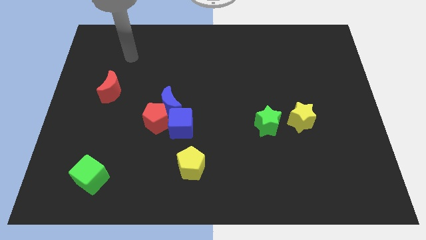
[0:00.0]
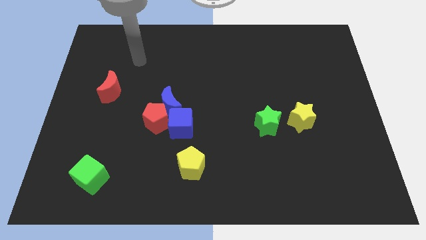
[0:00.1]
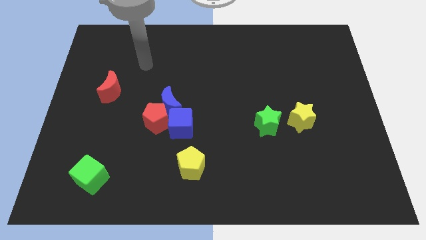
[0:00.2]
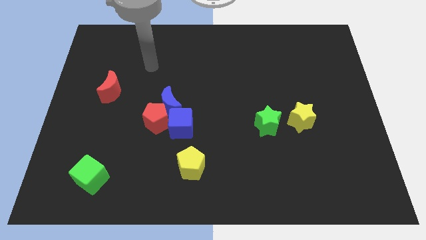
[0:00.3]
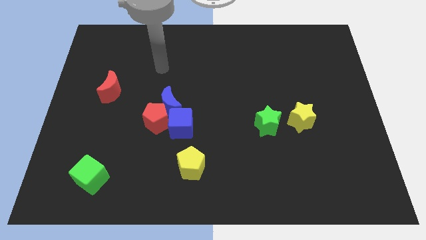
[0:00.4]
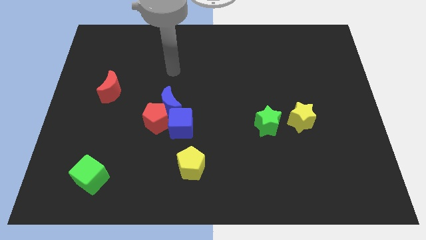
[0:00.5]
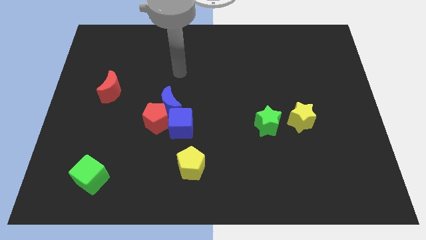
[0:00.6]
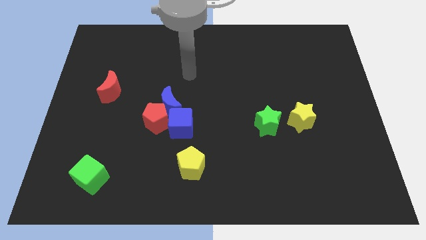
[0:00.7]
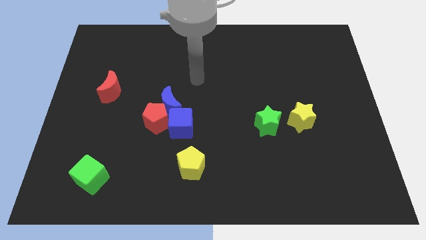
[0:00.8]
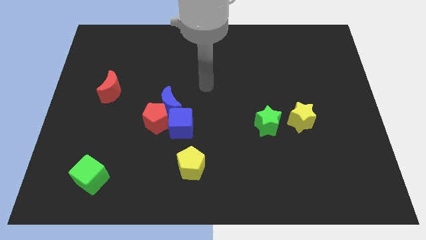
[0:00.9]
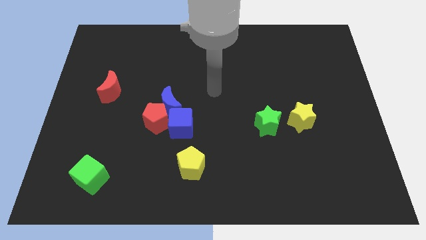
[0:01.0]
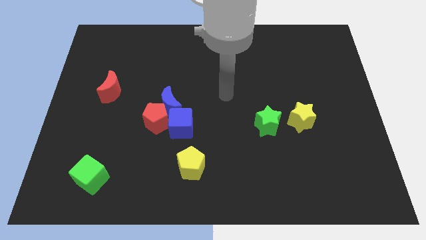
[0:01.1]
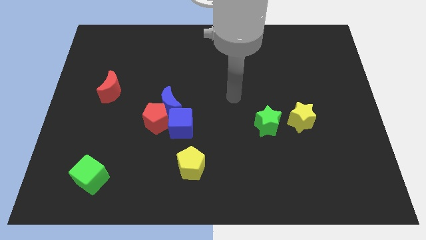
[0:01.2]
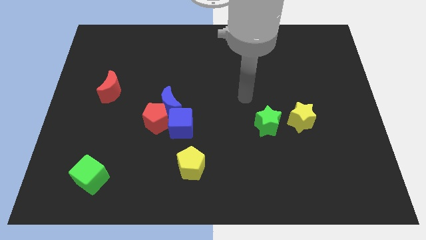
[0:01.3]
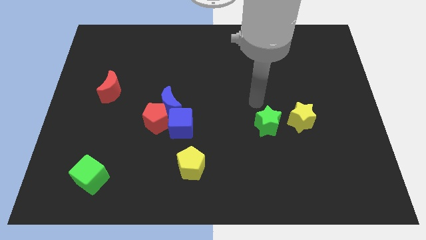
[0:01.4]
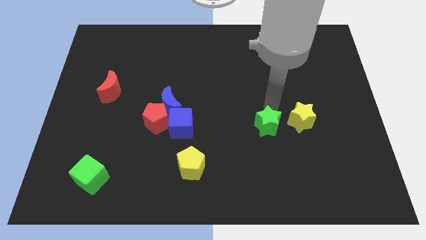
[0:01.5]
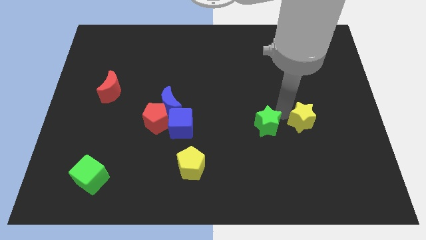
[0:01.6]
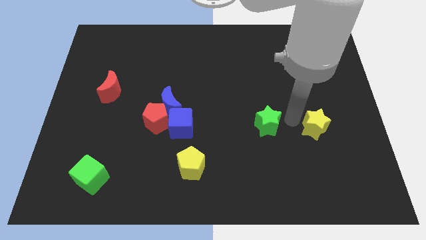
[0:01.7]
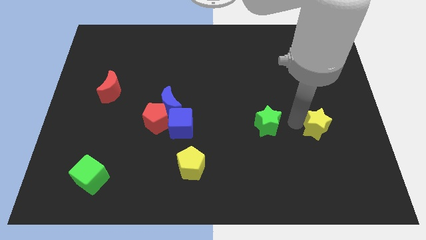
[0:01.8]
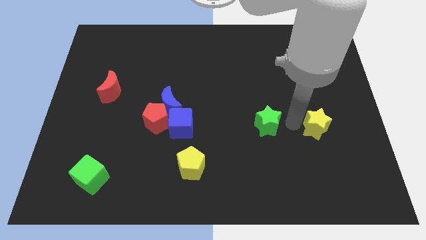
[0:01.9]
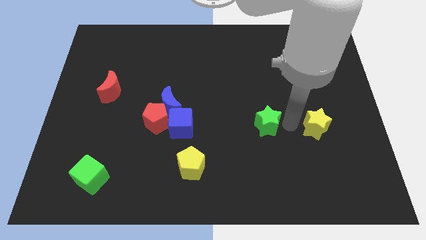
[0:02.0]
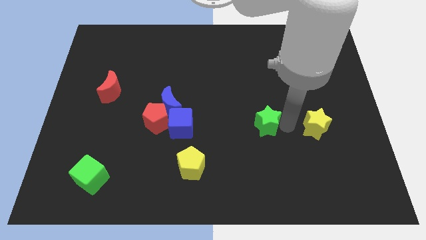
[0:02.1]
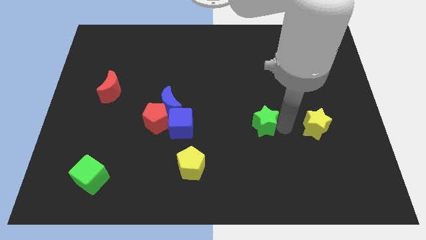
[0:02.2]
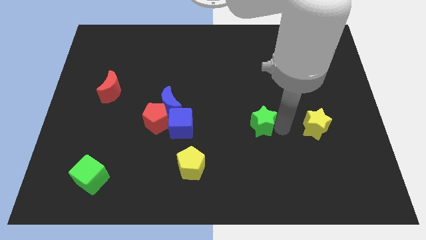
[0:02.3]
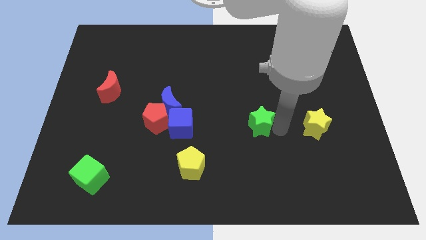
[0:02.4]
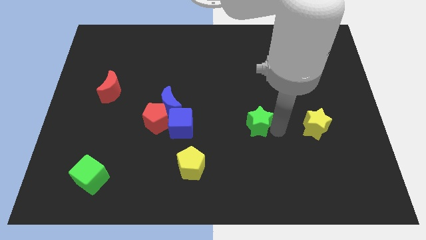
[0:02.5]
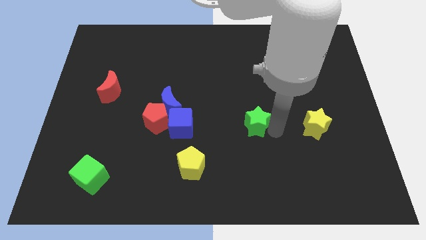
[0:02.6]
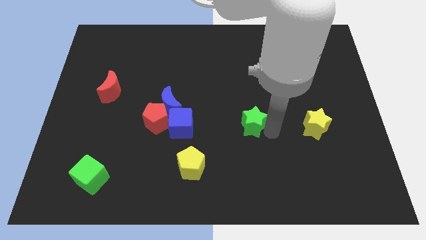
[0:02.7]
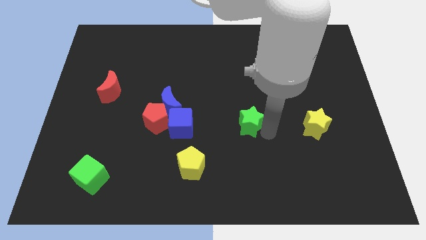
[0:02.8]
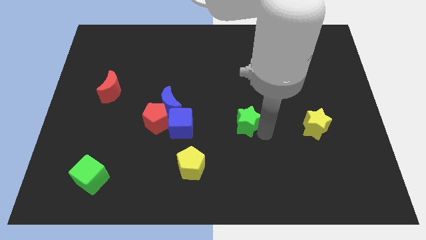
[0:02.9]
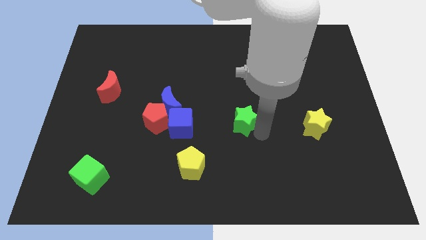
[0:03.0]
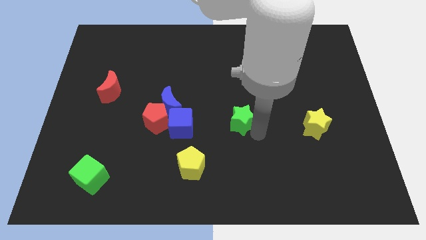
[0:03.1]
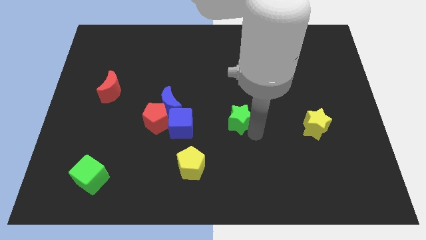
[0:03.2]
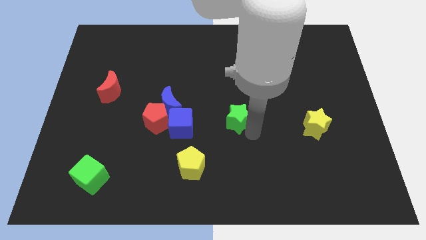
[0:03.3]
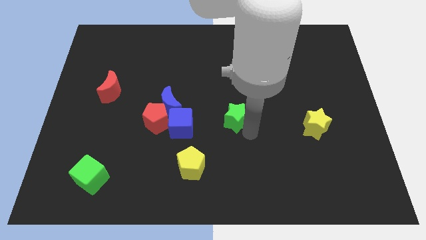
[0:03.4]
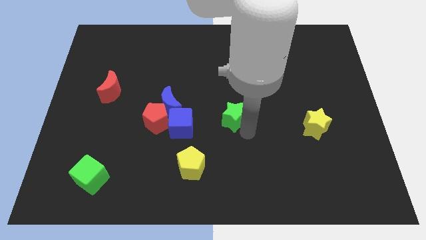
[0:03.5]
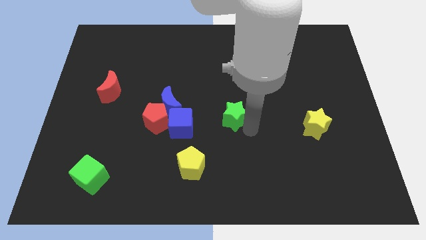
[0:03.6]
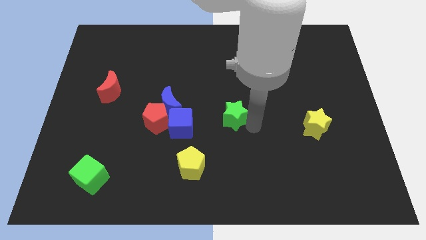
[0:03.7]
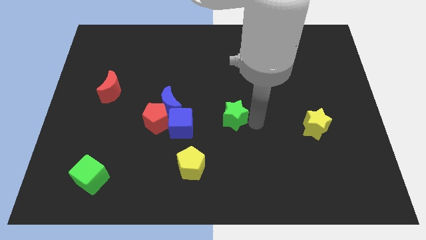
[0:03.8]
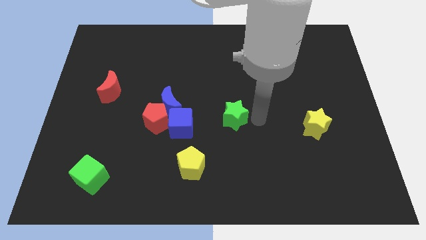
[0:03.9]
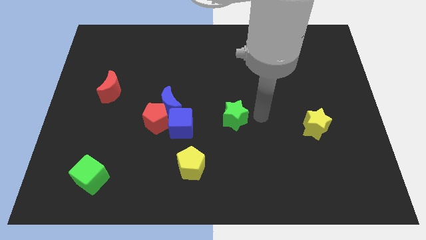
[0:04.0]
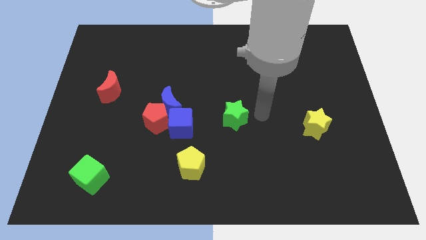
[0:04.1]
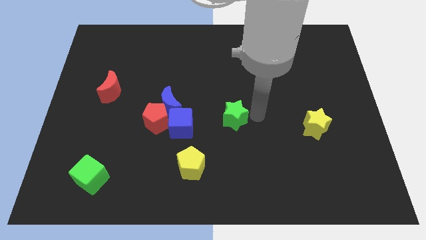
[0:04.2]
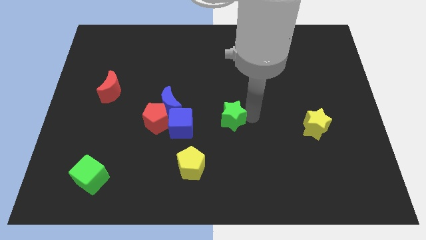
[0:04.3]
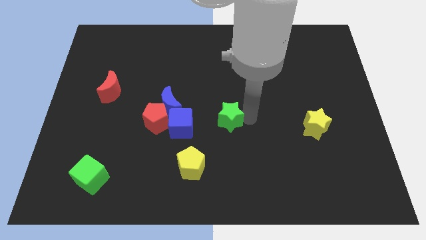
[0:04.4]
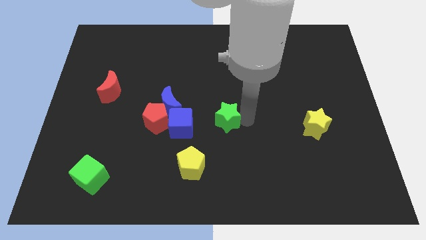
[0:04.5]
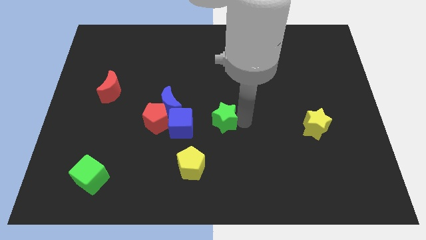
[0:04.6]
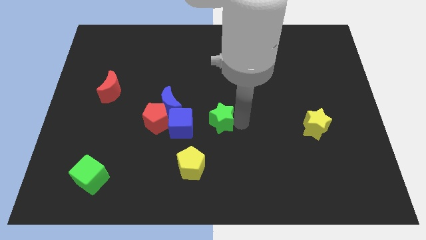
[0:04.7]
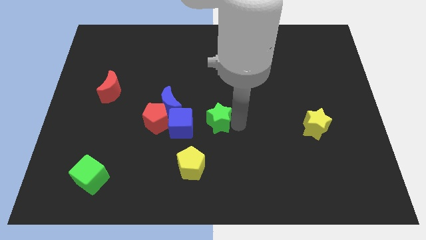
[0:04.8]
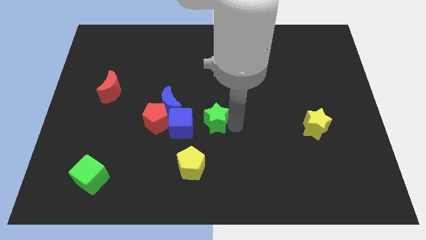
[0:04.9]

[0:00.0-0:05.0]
push the green star to the top right of the blue cube

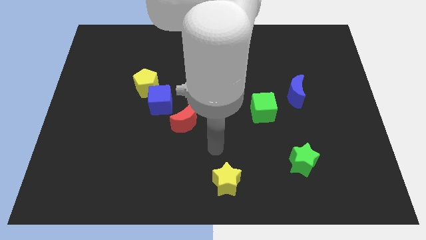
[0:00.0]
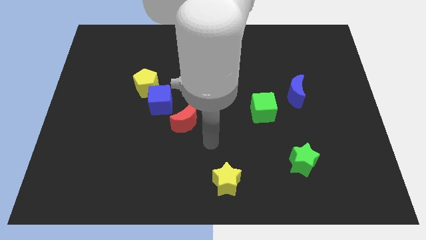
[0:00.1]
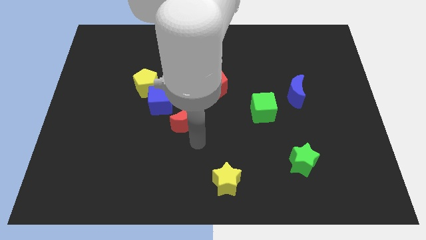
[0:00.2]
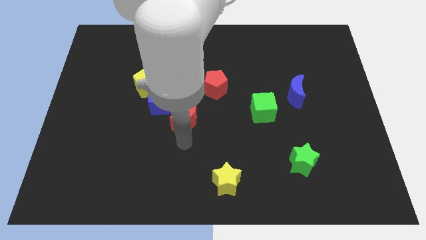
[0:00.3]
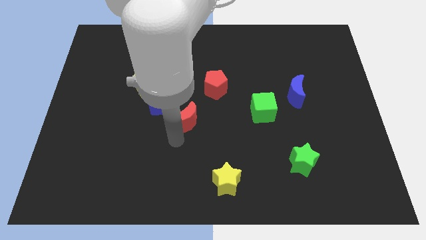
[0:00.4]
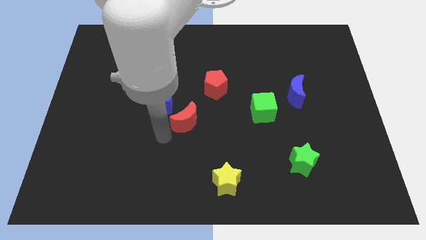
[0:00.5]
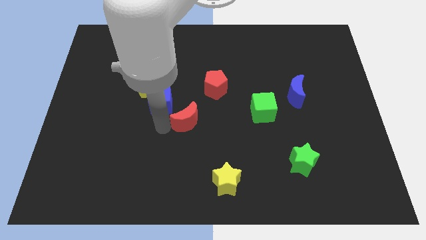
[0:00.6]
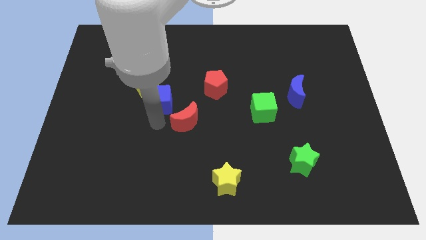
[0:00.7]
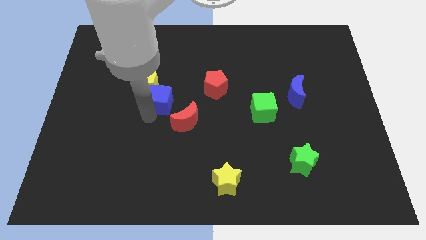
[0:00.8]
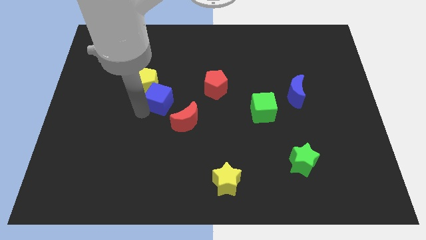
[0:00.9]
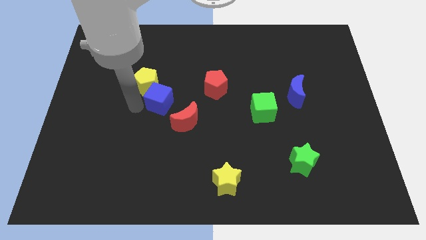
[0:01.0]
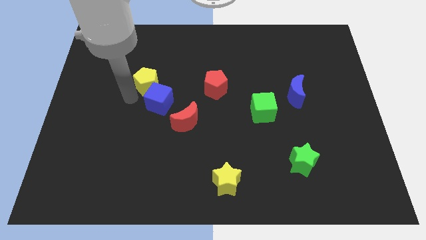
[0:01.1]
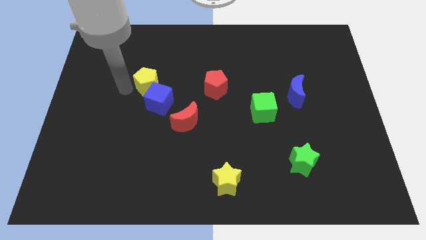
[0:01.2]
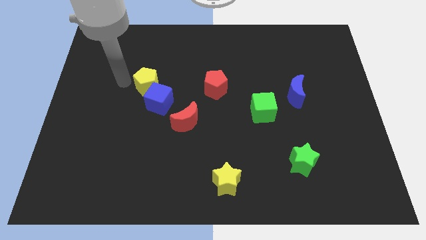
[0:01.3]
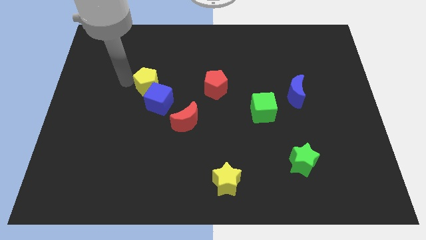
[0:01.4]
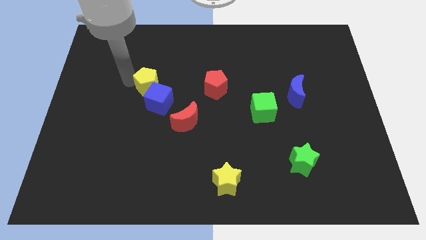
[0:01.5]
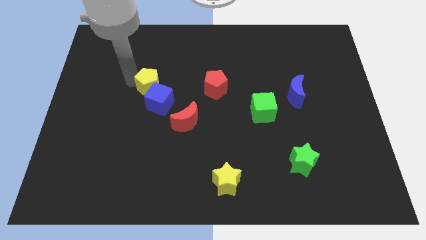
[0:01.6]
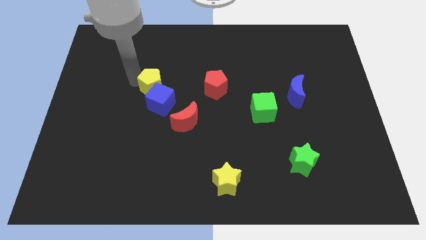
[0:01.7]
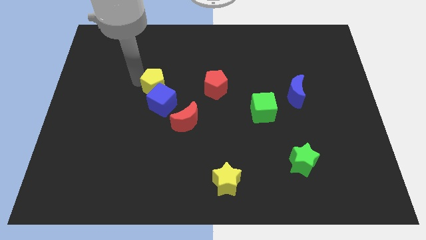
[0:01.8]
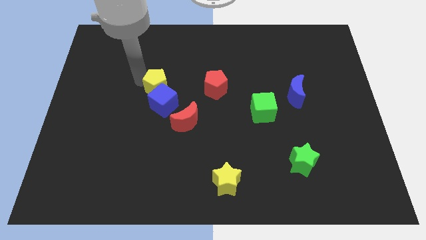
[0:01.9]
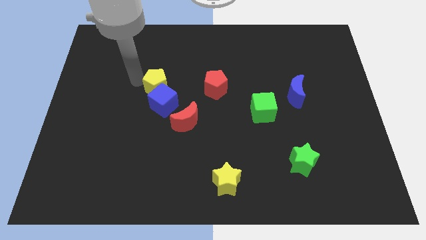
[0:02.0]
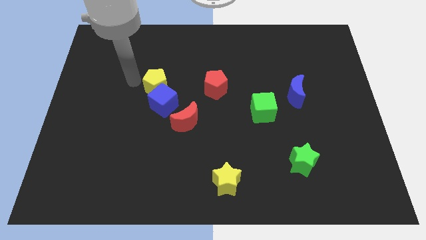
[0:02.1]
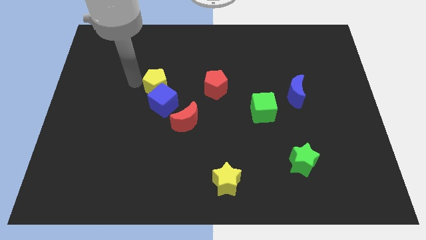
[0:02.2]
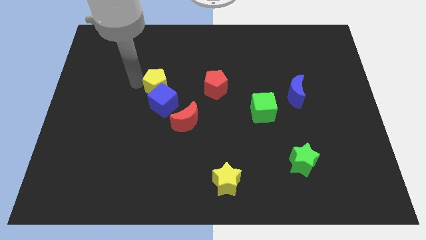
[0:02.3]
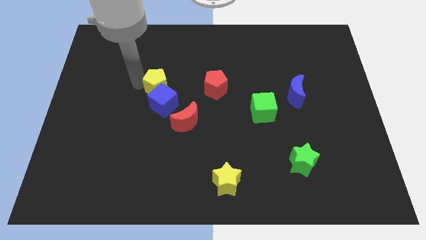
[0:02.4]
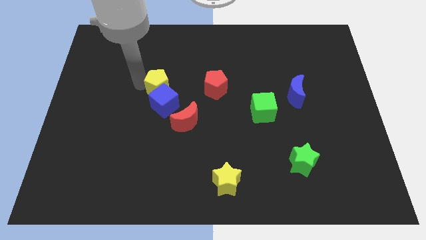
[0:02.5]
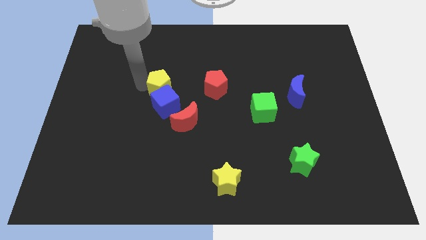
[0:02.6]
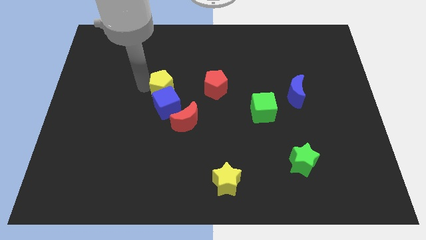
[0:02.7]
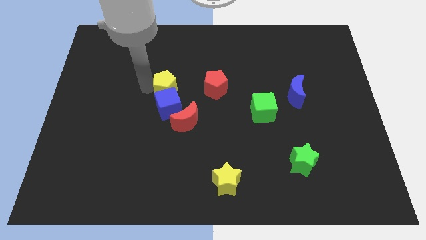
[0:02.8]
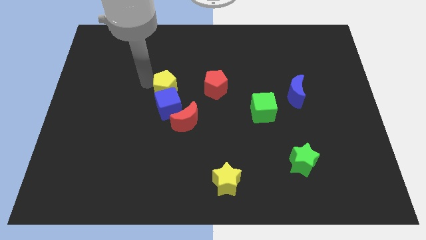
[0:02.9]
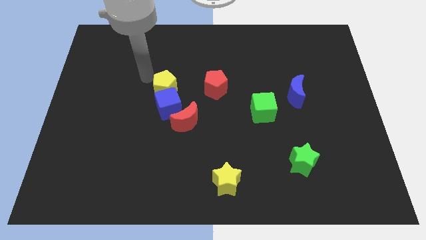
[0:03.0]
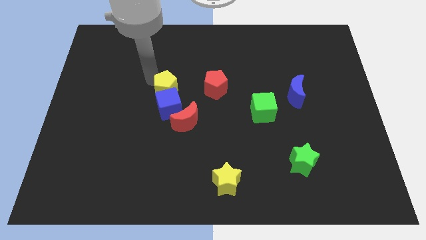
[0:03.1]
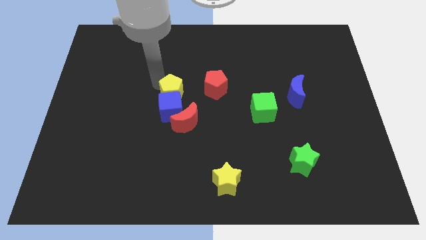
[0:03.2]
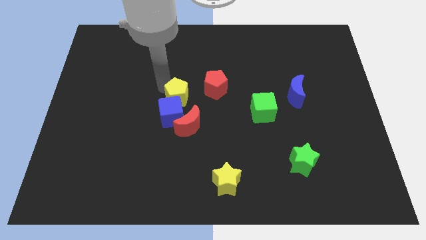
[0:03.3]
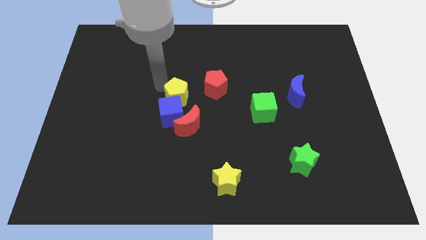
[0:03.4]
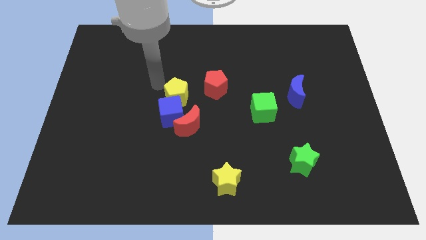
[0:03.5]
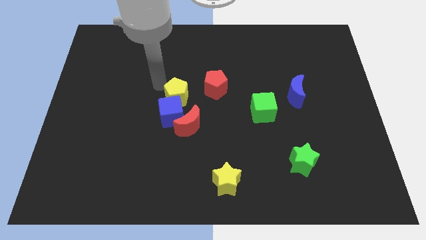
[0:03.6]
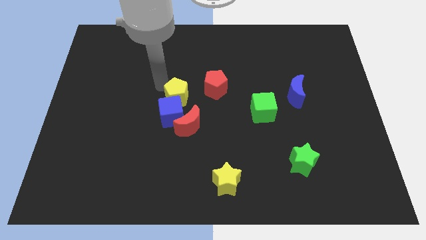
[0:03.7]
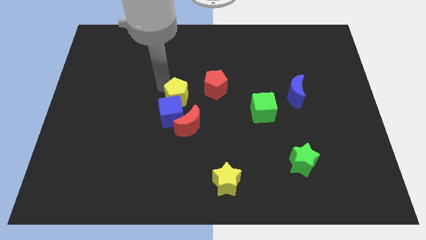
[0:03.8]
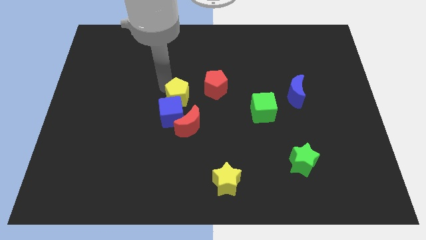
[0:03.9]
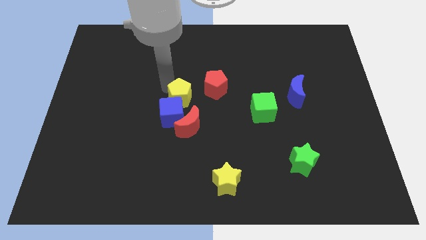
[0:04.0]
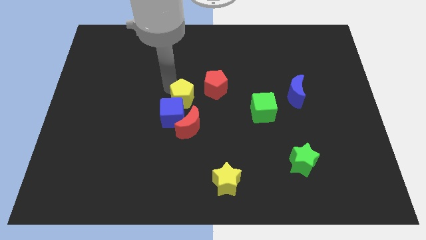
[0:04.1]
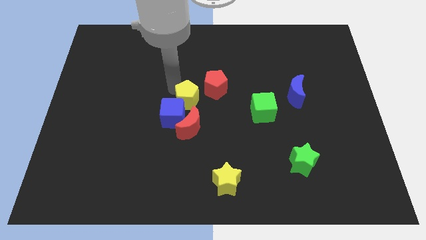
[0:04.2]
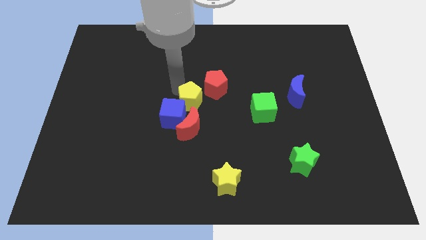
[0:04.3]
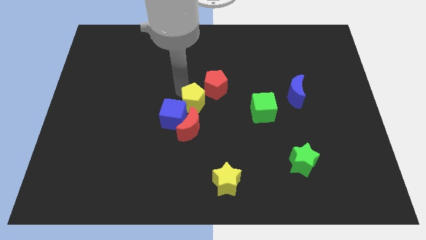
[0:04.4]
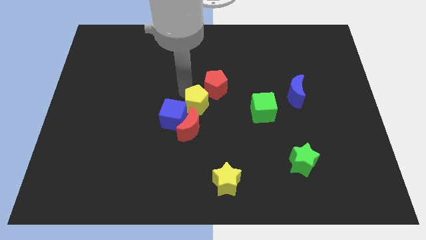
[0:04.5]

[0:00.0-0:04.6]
put the yellow pentagon to the bottom of the red pentagon
